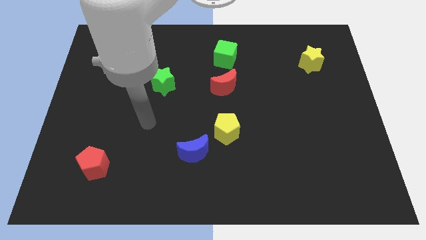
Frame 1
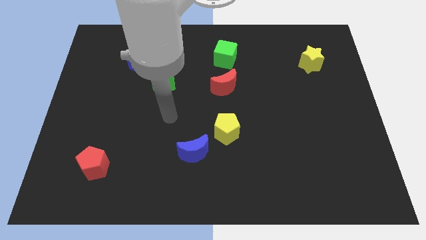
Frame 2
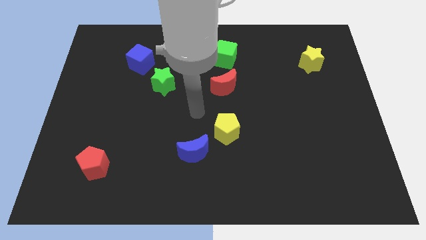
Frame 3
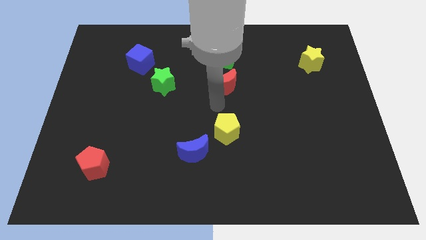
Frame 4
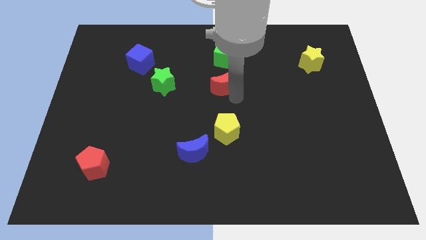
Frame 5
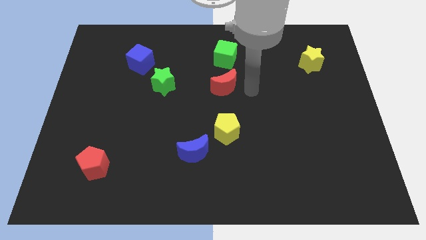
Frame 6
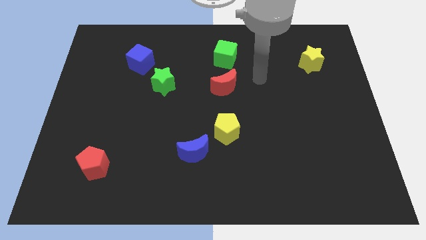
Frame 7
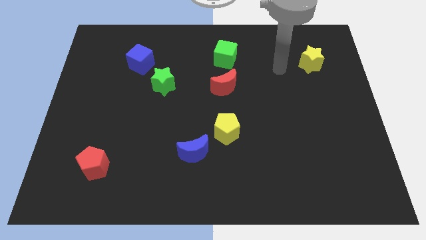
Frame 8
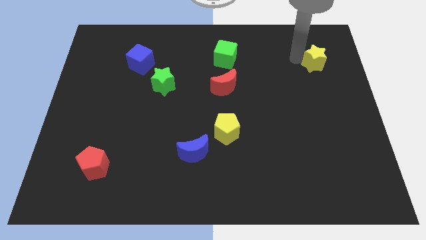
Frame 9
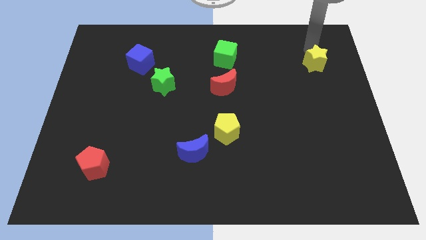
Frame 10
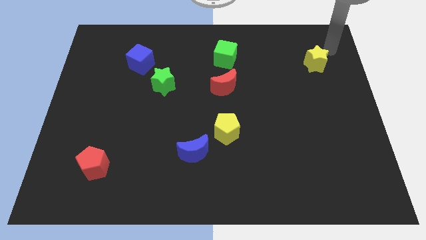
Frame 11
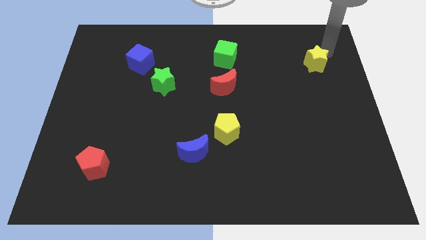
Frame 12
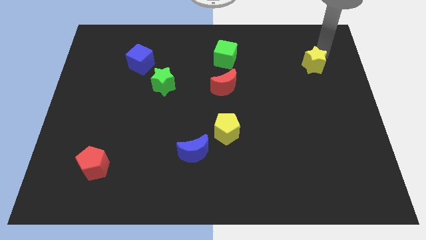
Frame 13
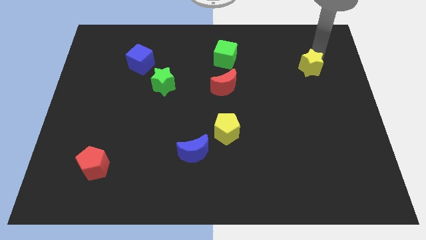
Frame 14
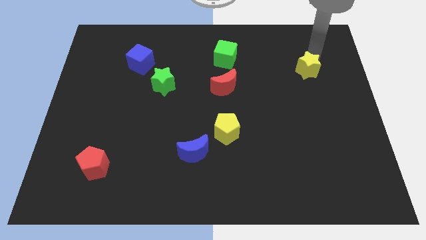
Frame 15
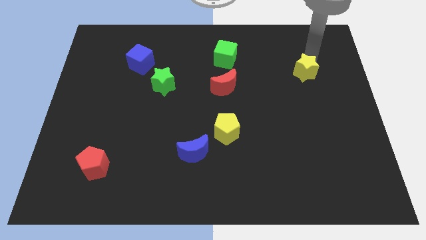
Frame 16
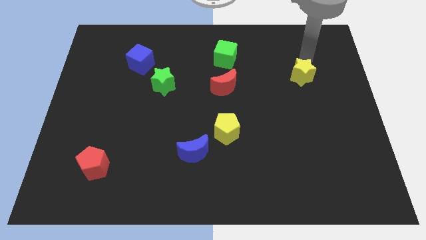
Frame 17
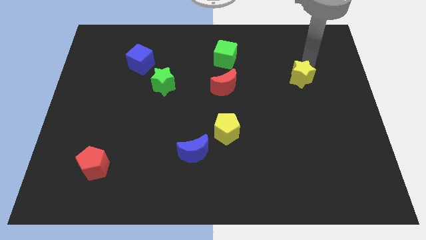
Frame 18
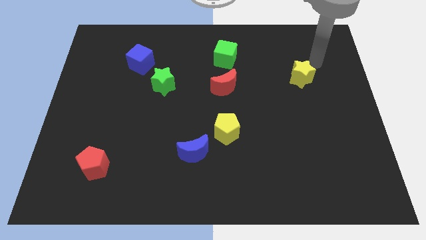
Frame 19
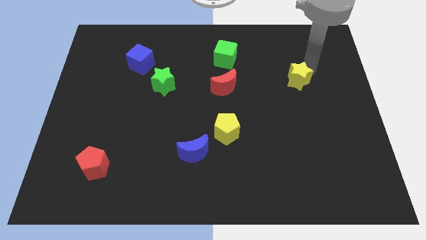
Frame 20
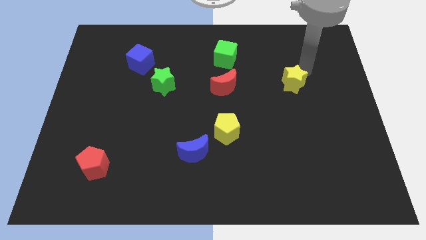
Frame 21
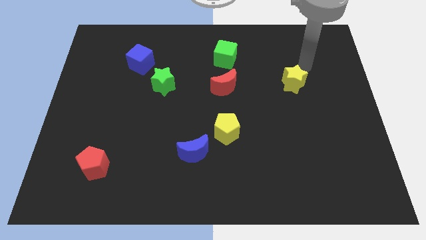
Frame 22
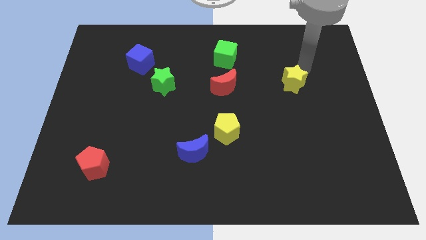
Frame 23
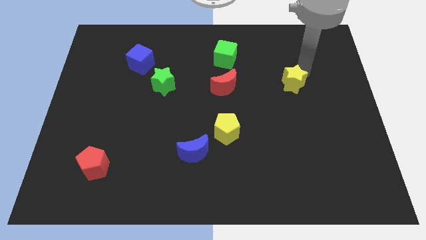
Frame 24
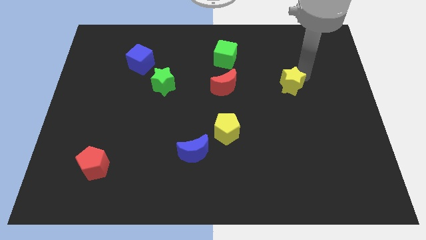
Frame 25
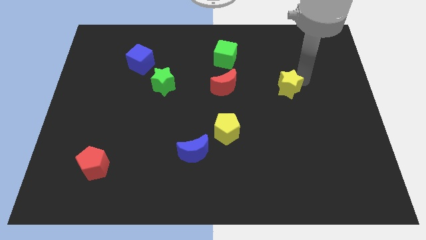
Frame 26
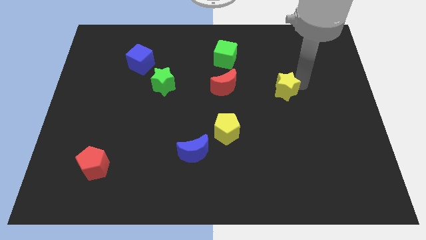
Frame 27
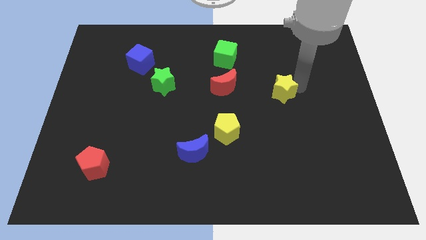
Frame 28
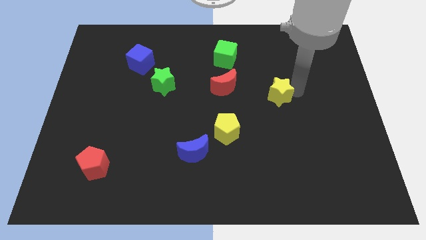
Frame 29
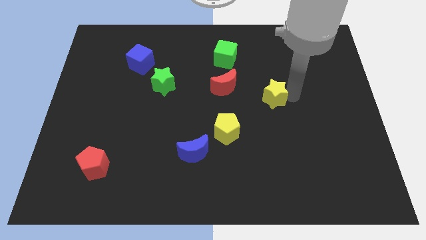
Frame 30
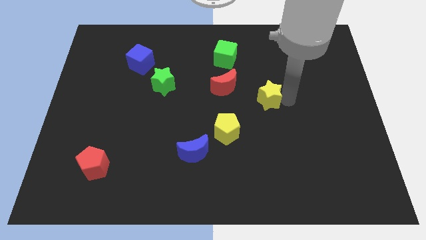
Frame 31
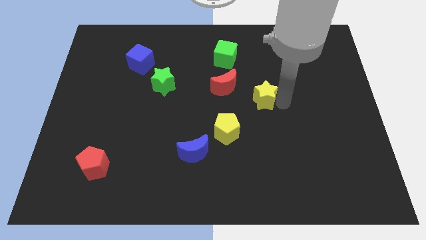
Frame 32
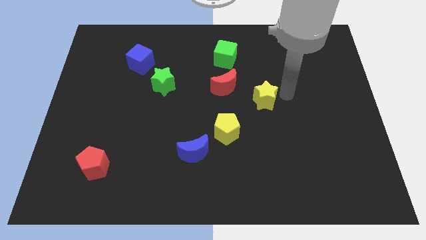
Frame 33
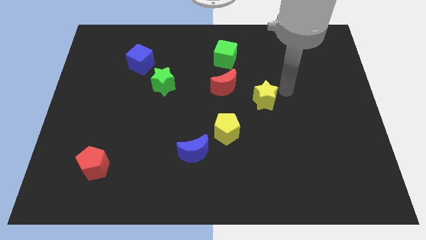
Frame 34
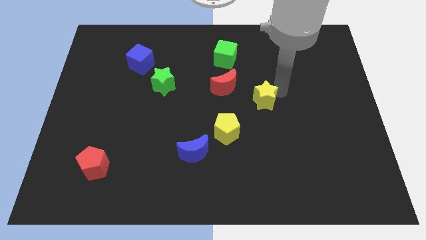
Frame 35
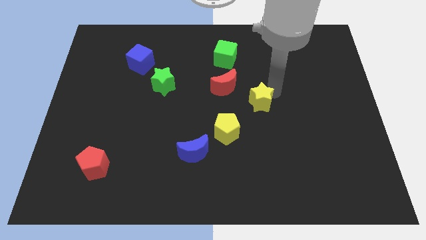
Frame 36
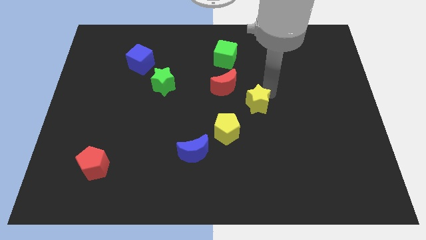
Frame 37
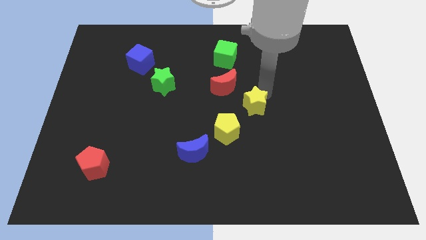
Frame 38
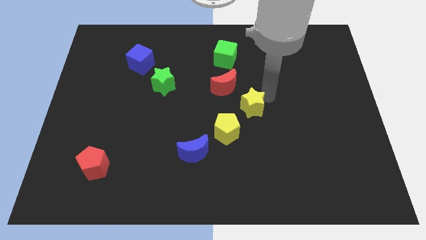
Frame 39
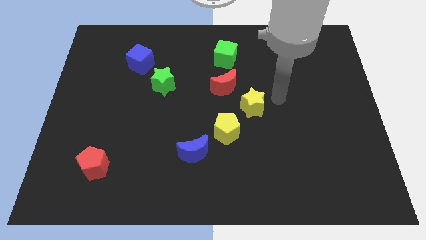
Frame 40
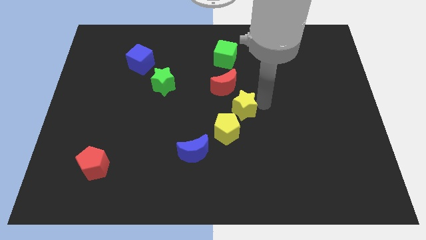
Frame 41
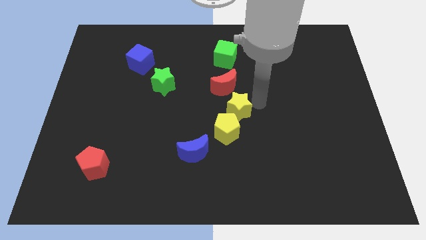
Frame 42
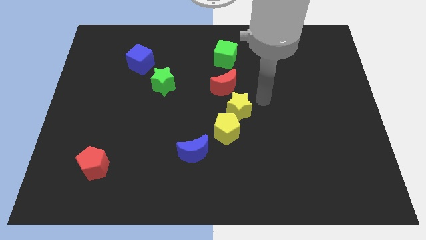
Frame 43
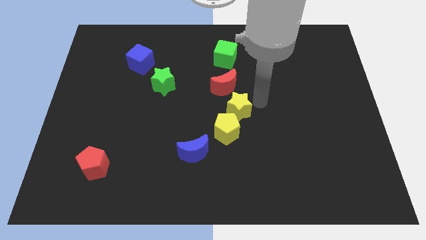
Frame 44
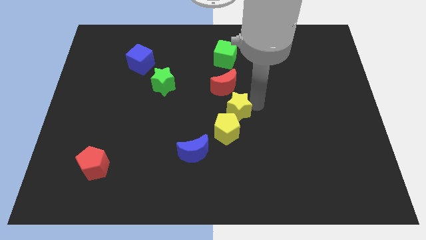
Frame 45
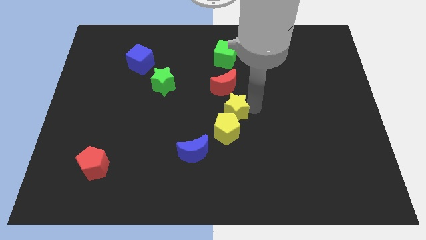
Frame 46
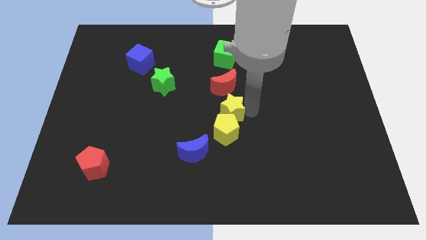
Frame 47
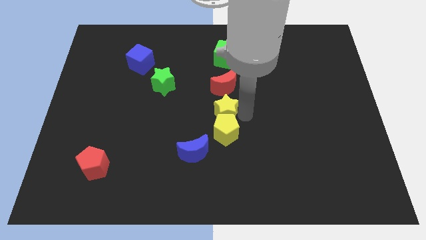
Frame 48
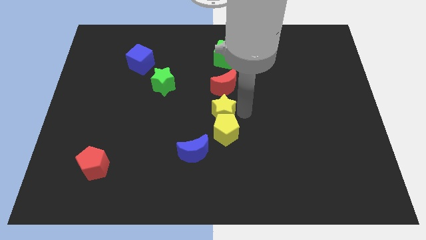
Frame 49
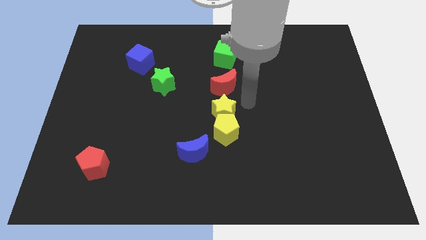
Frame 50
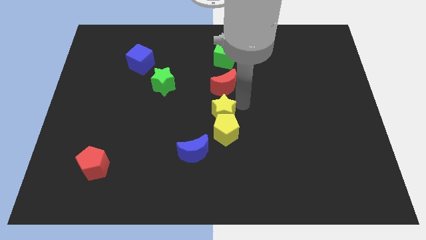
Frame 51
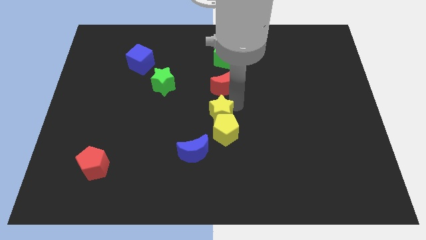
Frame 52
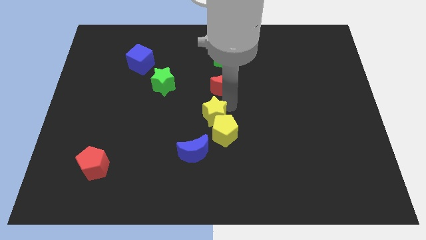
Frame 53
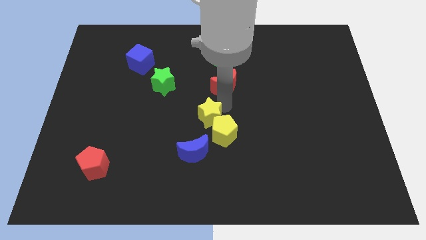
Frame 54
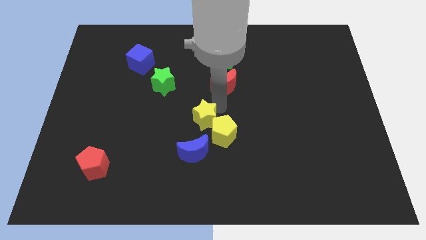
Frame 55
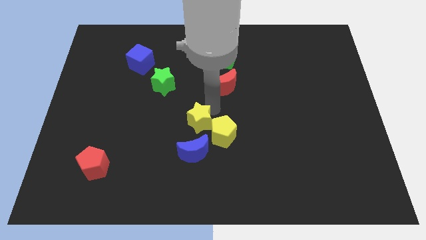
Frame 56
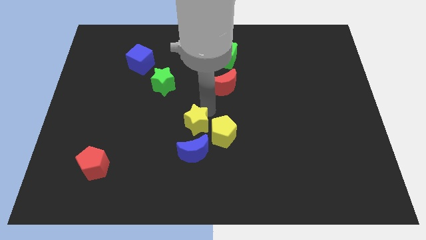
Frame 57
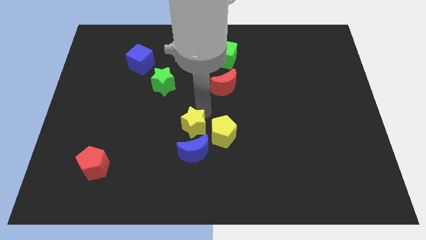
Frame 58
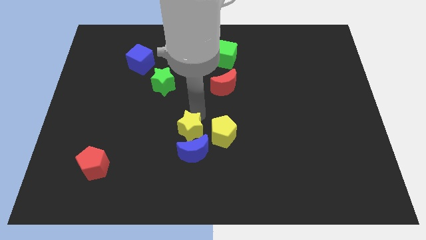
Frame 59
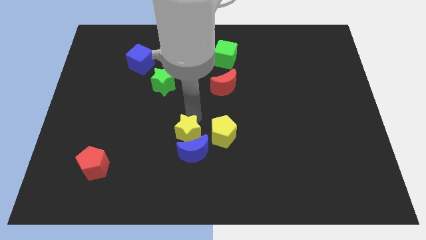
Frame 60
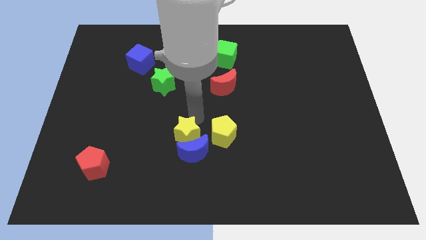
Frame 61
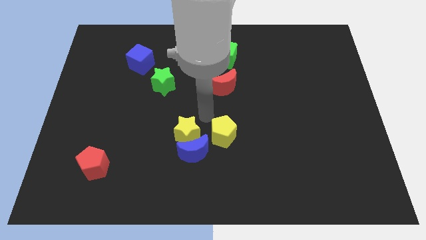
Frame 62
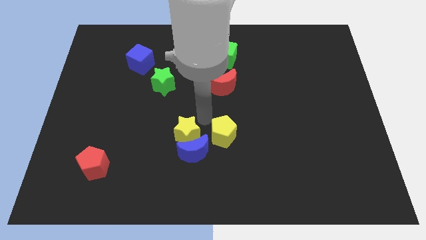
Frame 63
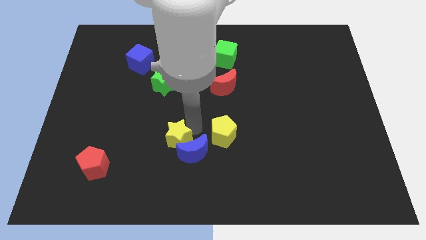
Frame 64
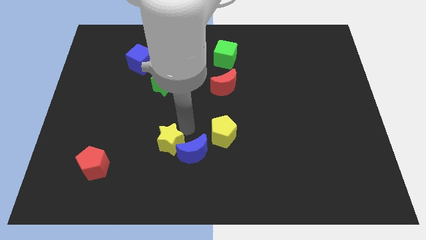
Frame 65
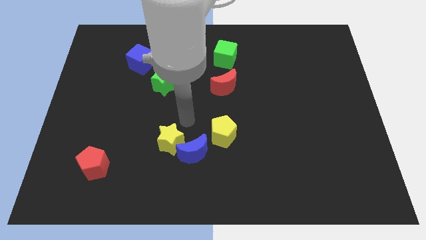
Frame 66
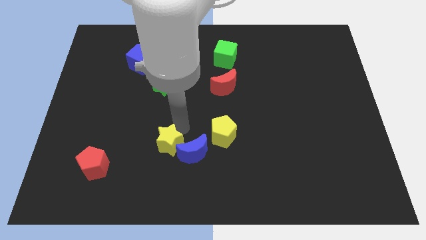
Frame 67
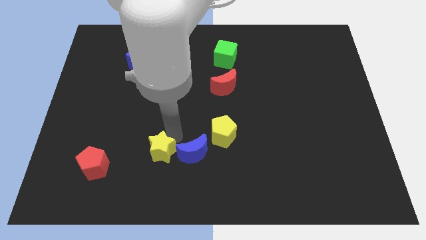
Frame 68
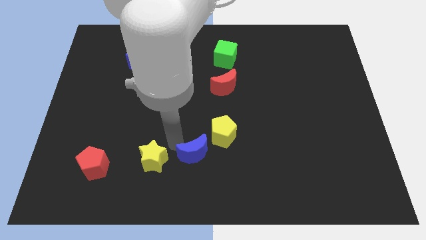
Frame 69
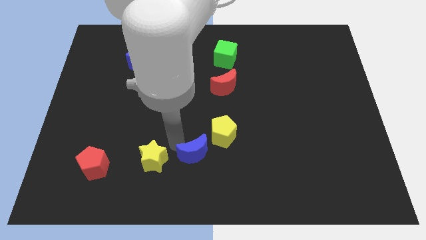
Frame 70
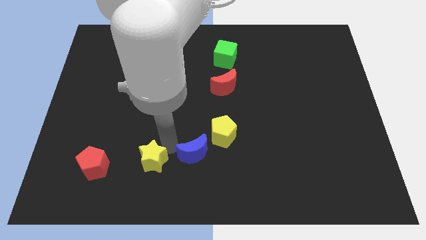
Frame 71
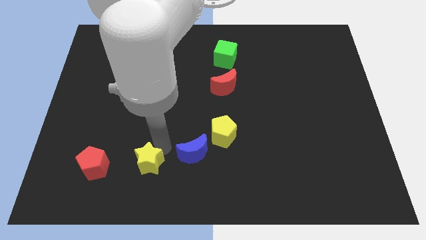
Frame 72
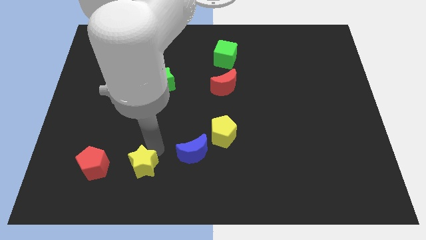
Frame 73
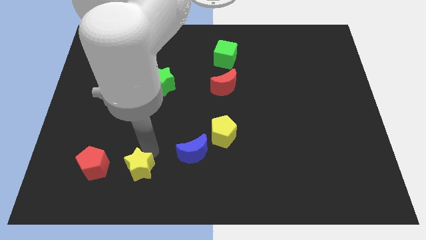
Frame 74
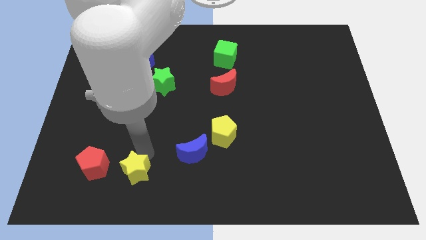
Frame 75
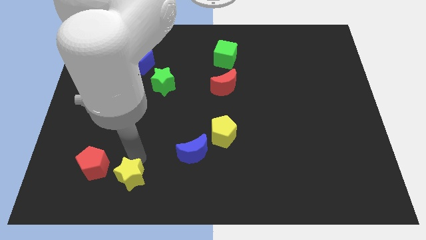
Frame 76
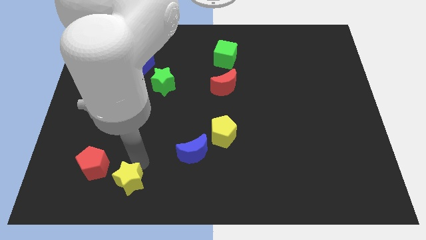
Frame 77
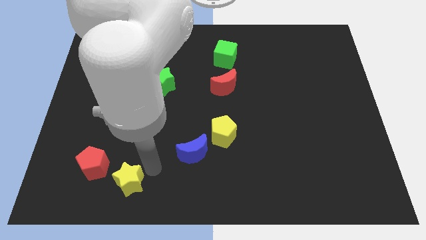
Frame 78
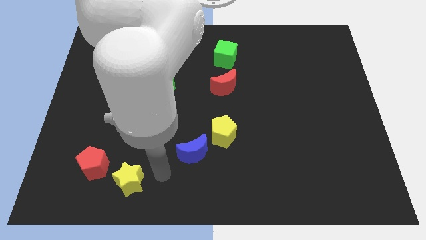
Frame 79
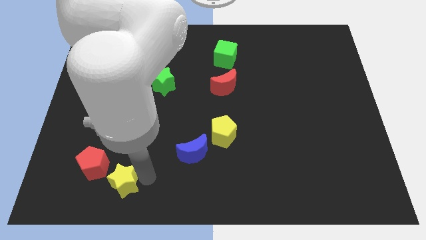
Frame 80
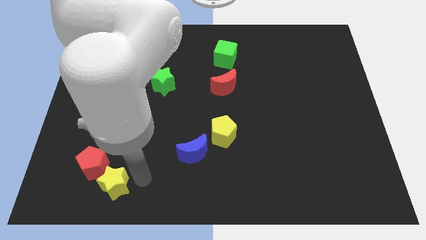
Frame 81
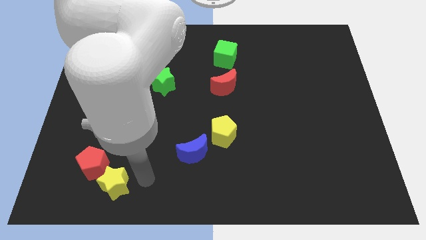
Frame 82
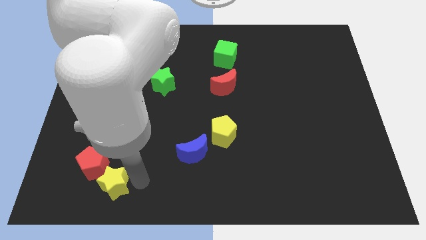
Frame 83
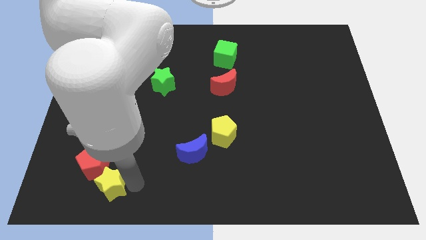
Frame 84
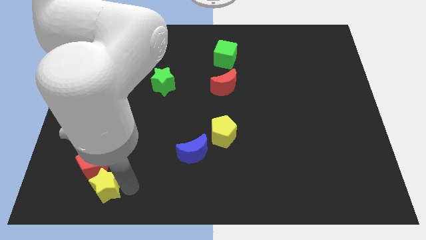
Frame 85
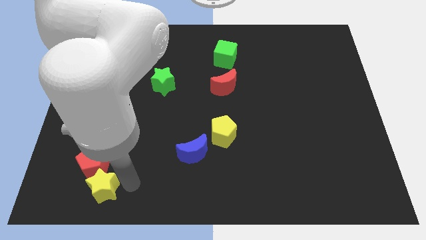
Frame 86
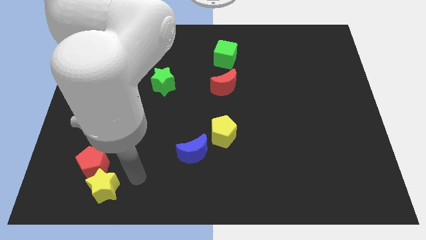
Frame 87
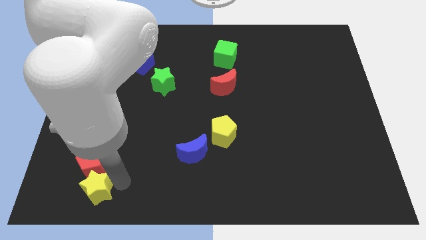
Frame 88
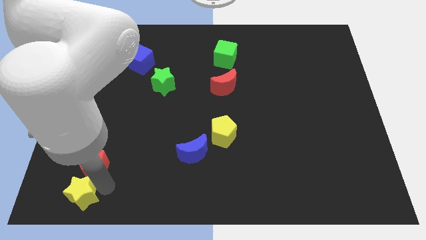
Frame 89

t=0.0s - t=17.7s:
move the yellow star to the bottom left corner
